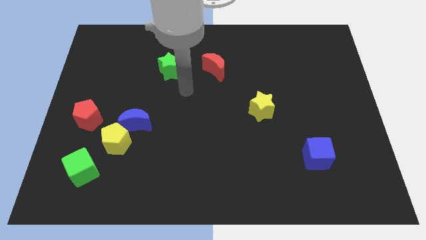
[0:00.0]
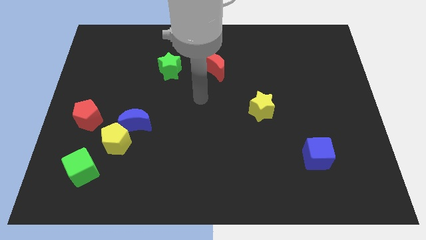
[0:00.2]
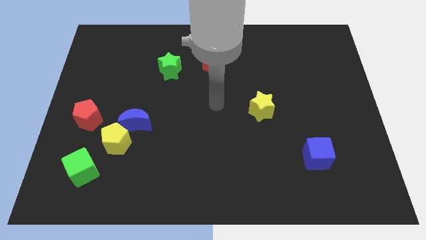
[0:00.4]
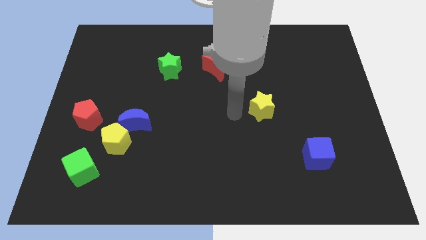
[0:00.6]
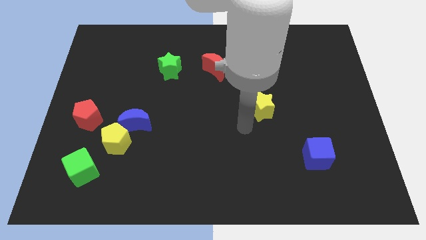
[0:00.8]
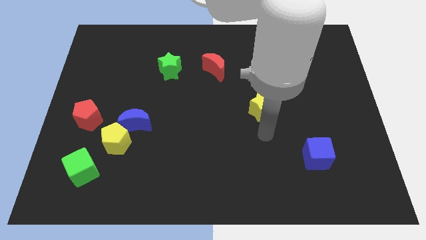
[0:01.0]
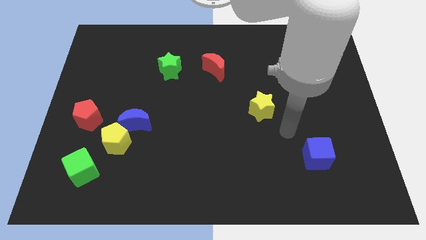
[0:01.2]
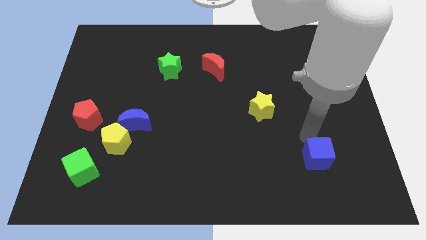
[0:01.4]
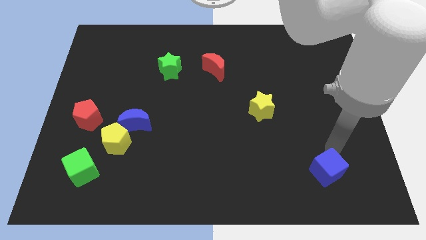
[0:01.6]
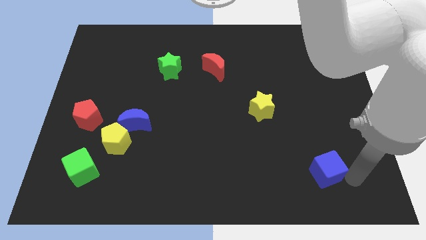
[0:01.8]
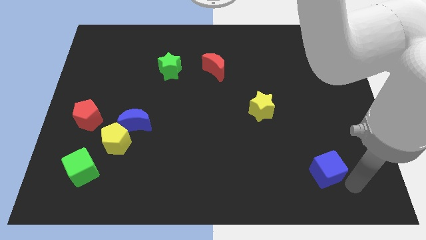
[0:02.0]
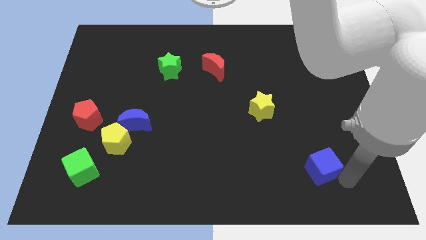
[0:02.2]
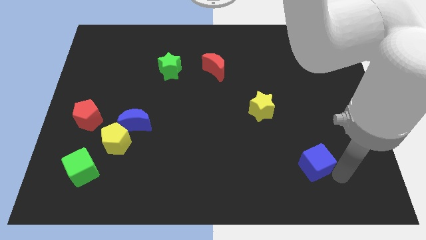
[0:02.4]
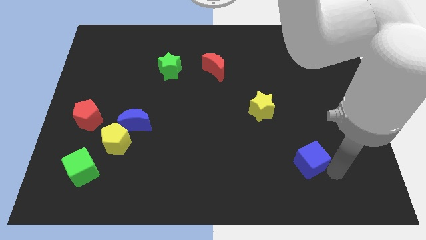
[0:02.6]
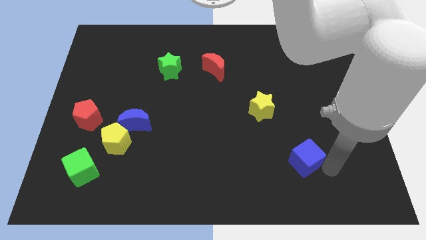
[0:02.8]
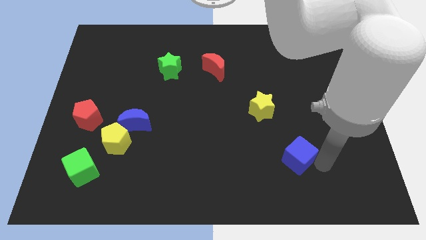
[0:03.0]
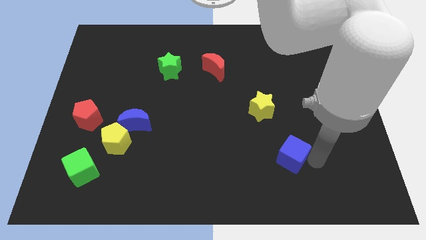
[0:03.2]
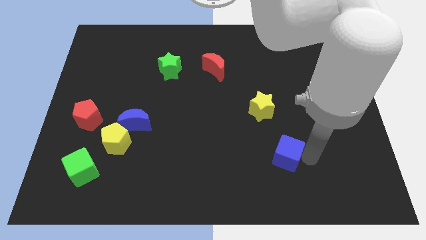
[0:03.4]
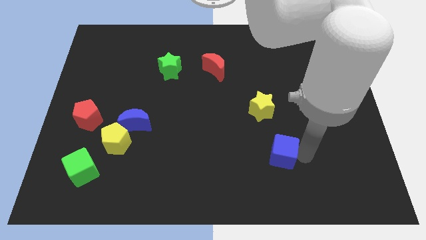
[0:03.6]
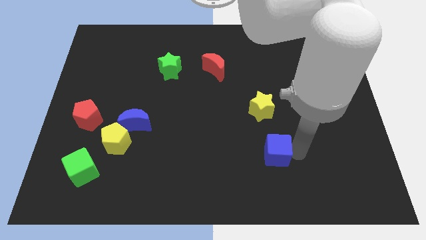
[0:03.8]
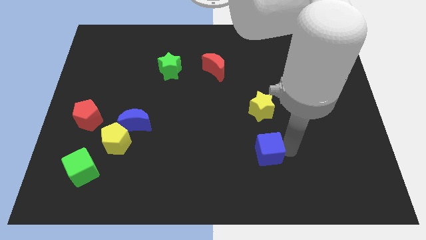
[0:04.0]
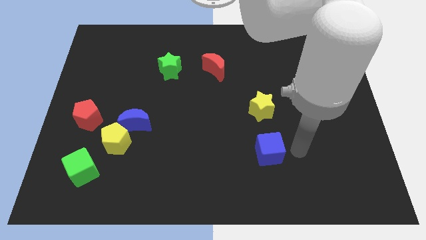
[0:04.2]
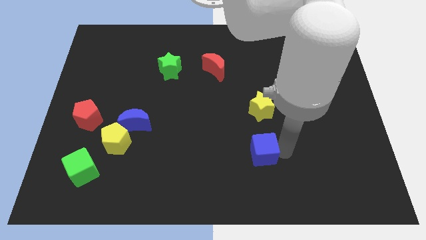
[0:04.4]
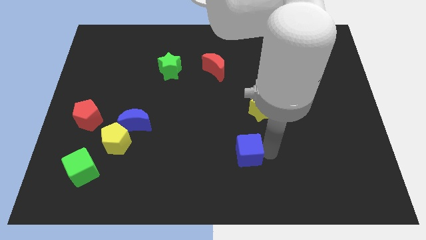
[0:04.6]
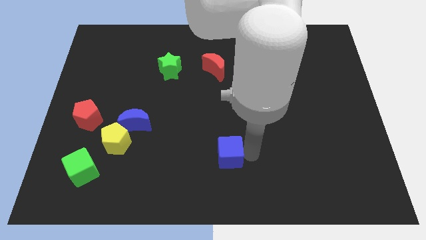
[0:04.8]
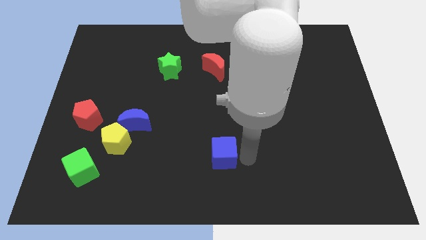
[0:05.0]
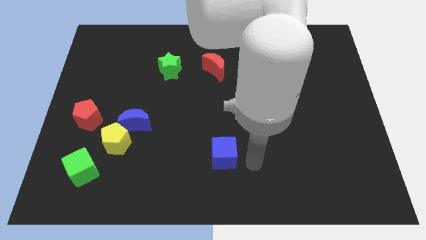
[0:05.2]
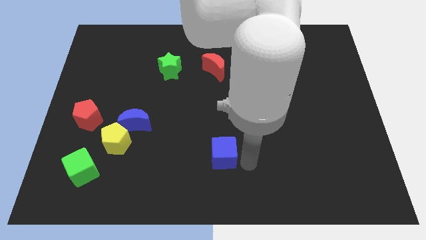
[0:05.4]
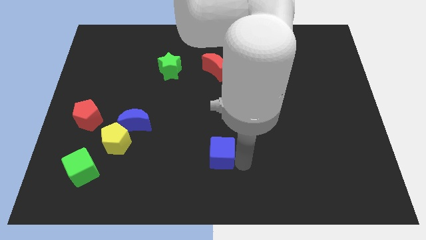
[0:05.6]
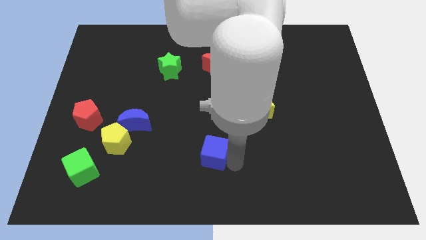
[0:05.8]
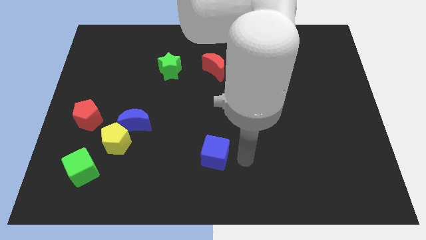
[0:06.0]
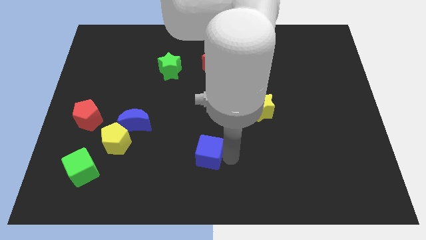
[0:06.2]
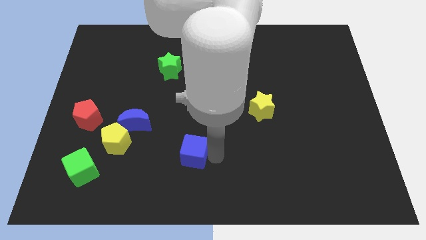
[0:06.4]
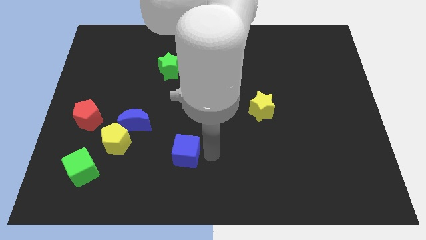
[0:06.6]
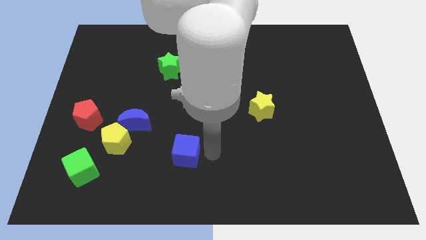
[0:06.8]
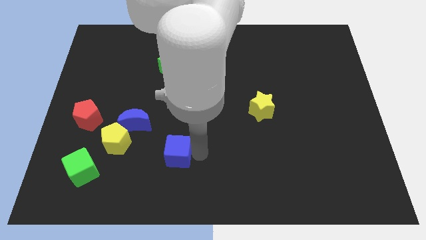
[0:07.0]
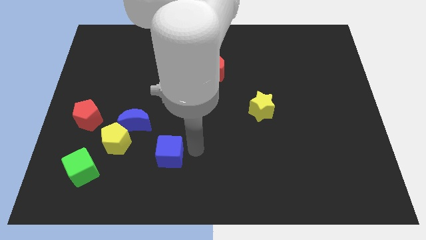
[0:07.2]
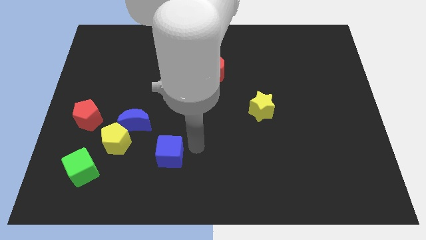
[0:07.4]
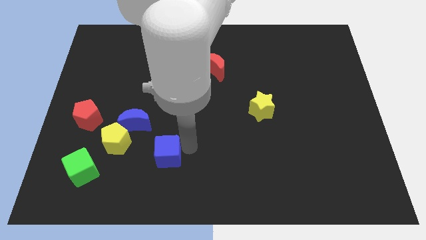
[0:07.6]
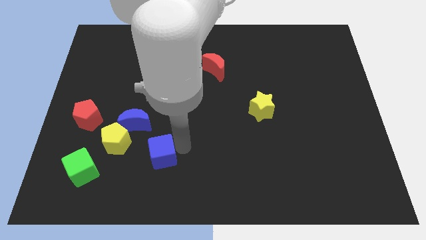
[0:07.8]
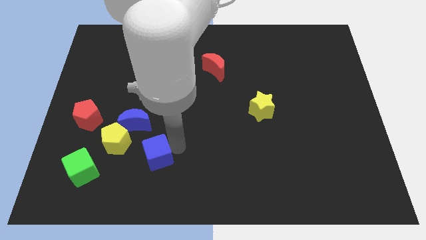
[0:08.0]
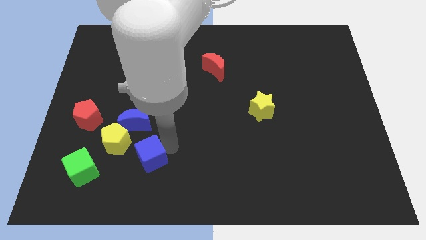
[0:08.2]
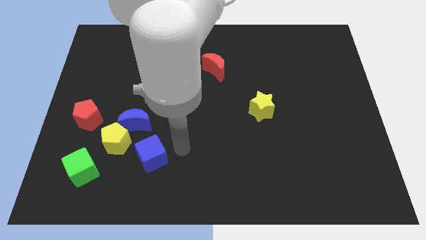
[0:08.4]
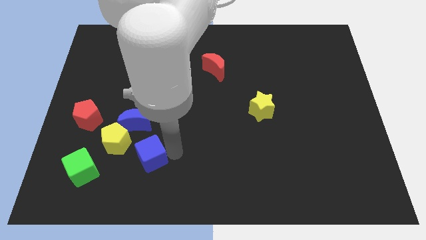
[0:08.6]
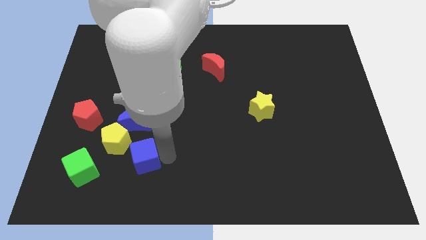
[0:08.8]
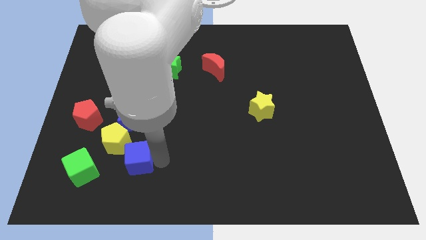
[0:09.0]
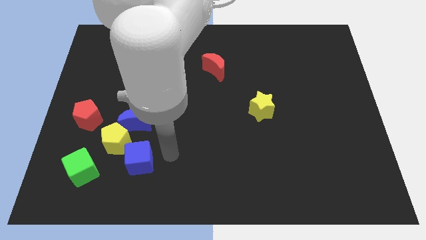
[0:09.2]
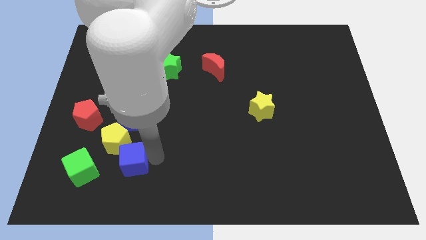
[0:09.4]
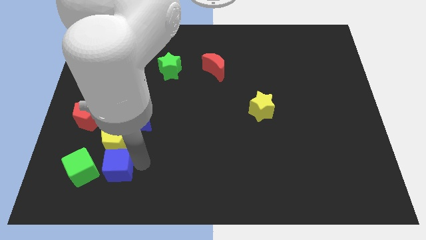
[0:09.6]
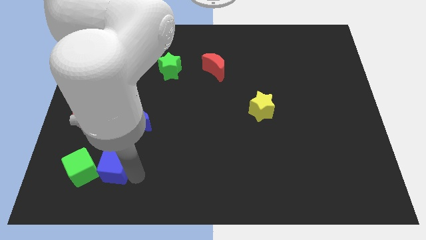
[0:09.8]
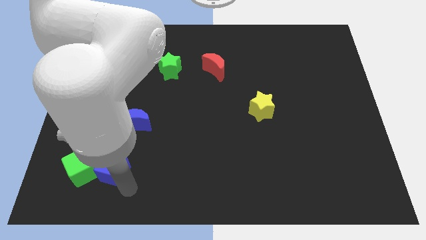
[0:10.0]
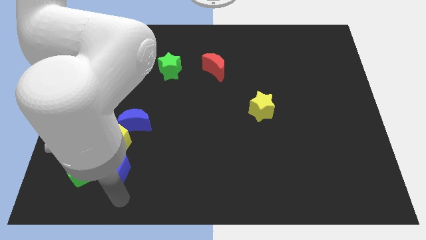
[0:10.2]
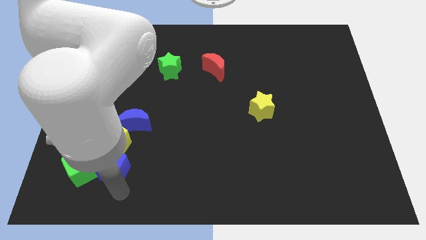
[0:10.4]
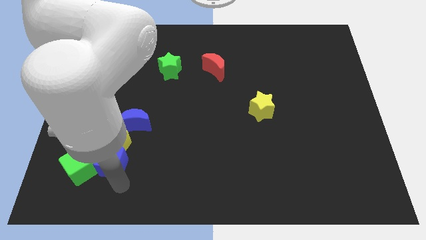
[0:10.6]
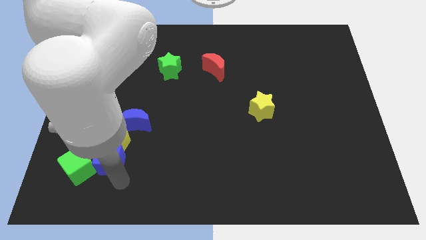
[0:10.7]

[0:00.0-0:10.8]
move the blue cube diagonally down and to the left of the blue moon

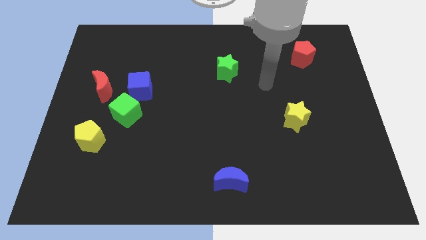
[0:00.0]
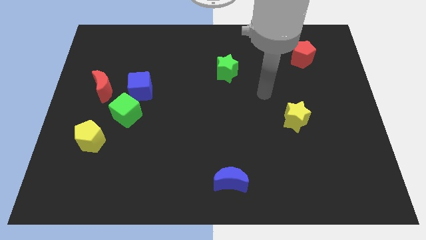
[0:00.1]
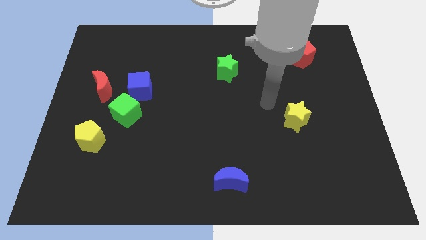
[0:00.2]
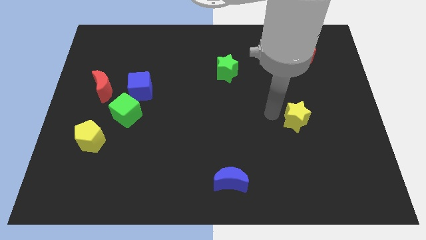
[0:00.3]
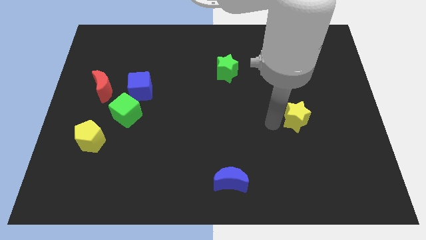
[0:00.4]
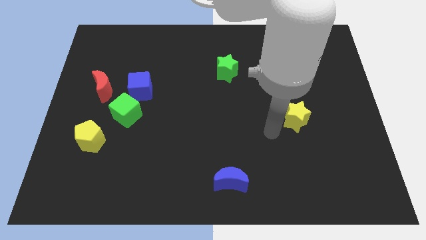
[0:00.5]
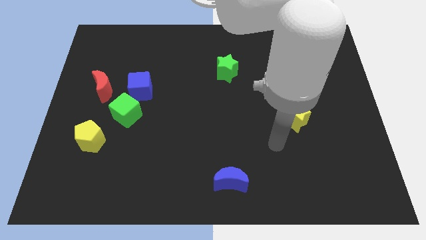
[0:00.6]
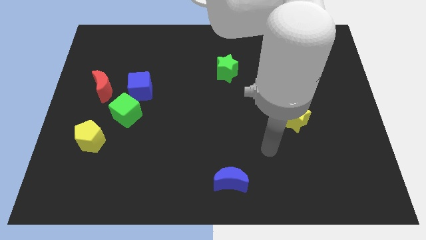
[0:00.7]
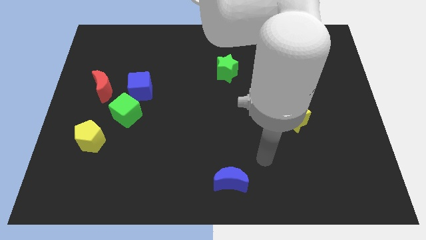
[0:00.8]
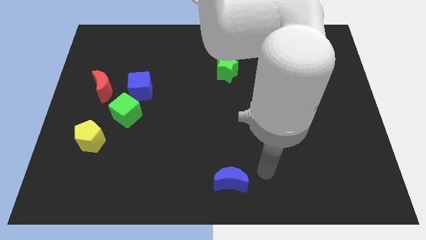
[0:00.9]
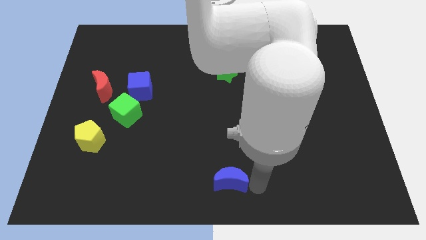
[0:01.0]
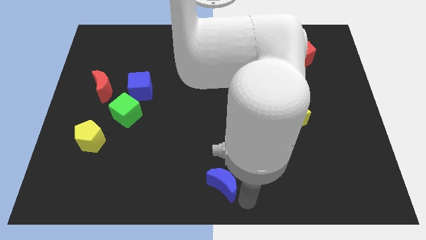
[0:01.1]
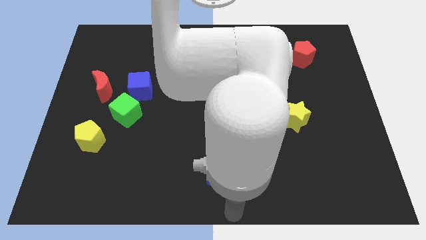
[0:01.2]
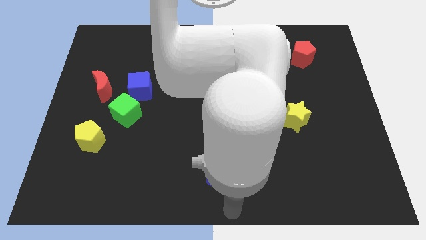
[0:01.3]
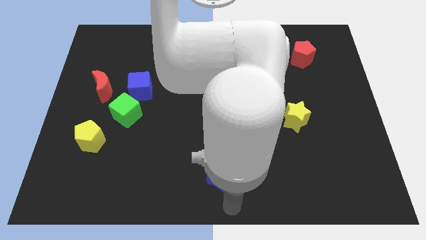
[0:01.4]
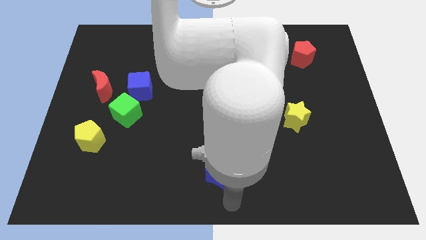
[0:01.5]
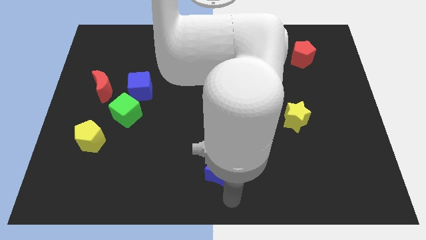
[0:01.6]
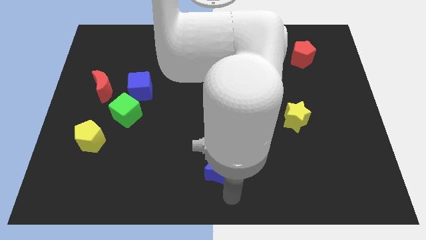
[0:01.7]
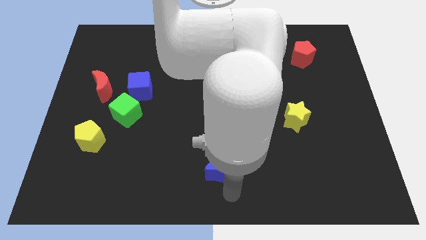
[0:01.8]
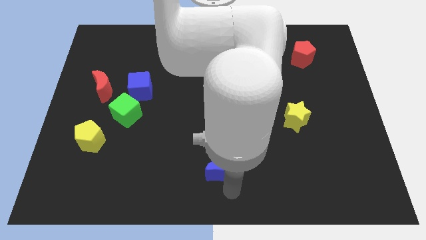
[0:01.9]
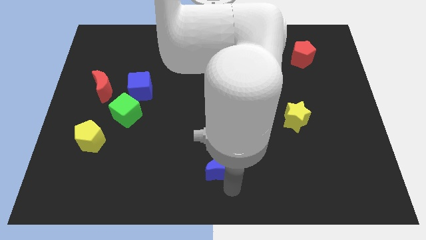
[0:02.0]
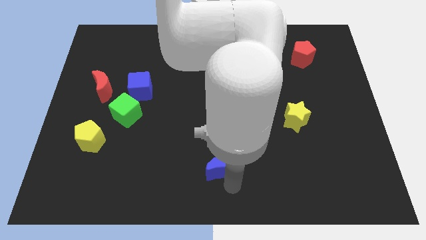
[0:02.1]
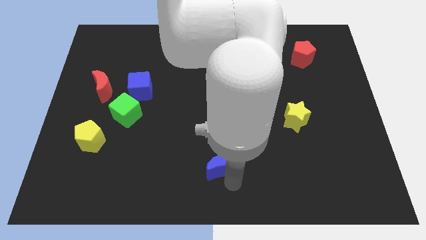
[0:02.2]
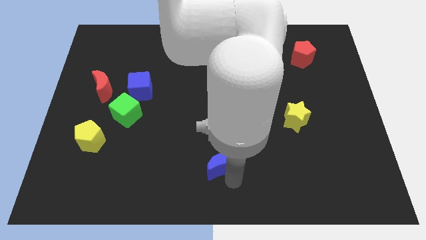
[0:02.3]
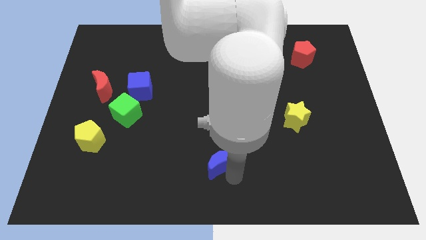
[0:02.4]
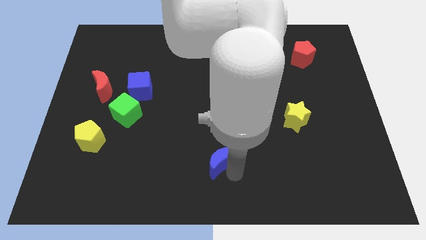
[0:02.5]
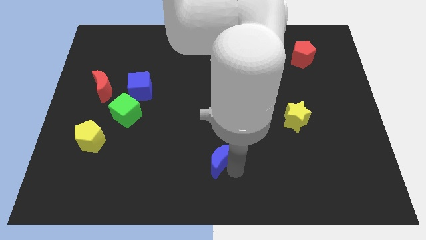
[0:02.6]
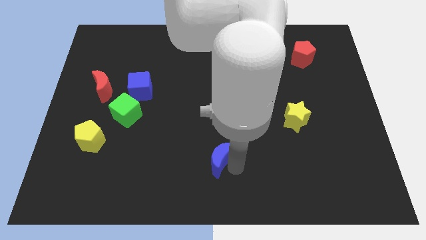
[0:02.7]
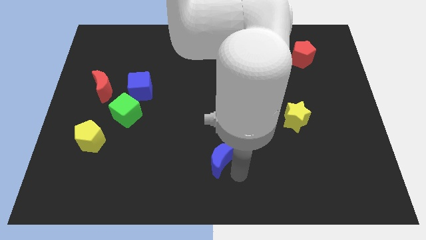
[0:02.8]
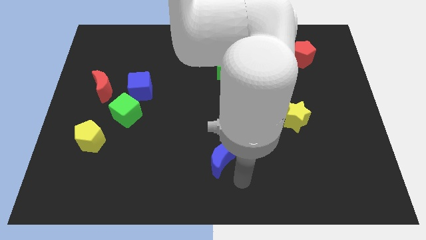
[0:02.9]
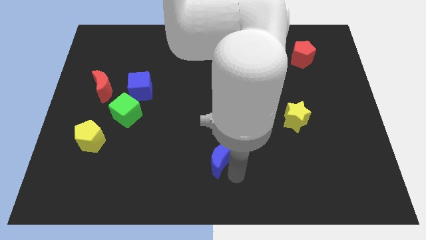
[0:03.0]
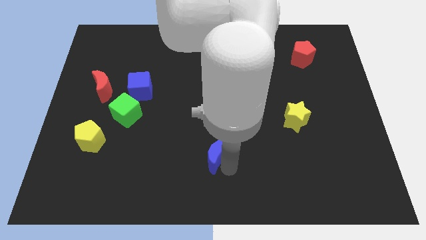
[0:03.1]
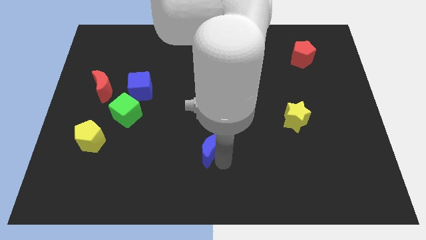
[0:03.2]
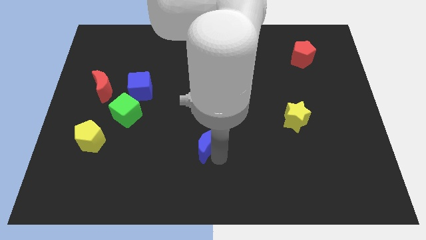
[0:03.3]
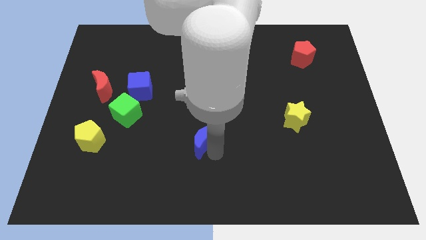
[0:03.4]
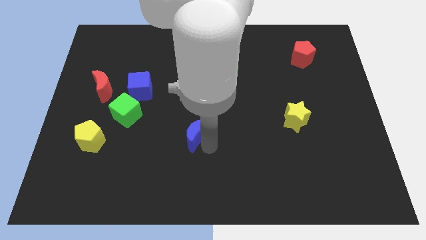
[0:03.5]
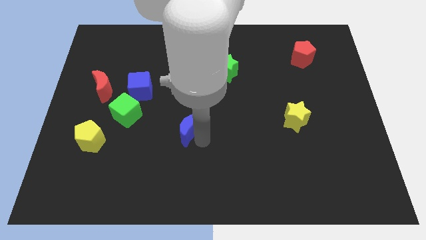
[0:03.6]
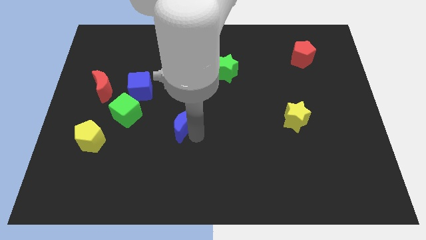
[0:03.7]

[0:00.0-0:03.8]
move the blue moon just right of the green cube
